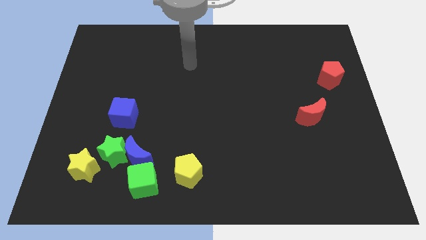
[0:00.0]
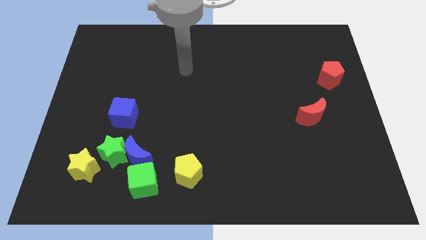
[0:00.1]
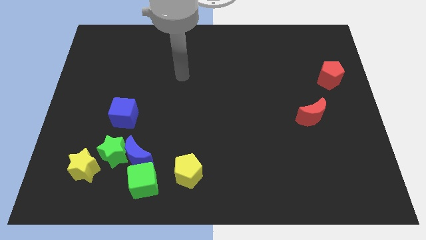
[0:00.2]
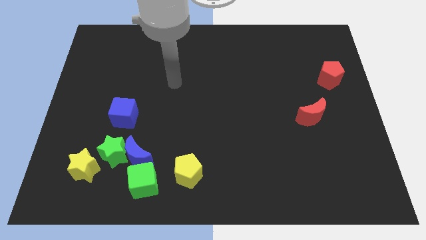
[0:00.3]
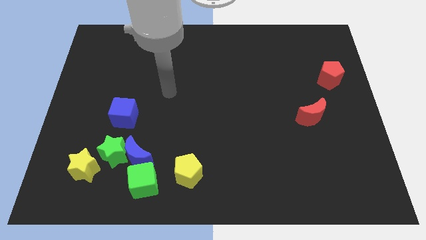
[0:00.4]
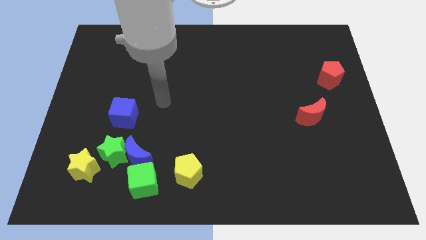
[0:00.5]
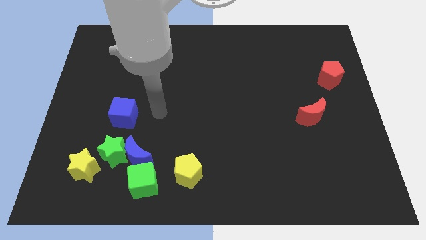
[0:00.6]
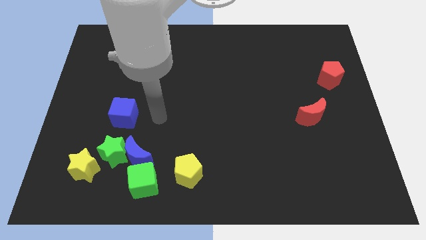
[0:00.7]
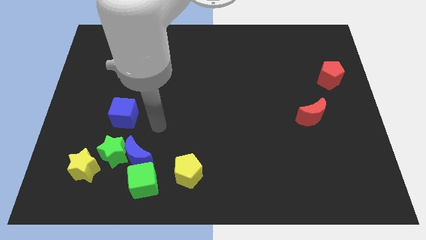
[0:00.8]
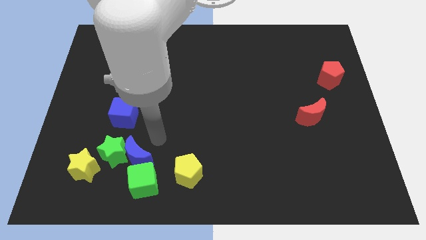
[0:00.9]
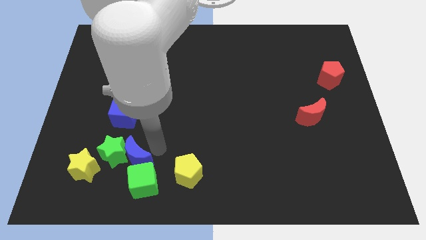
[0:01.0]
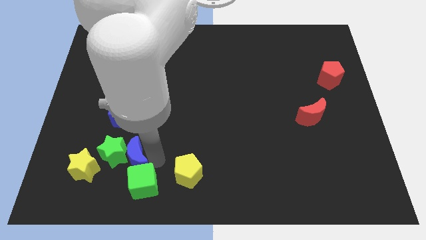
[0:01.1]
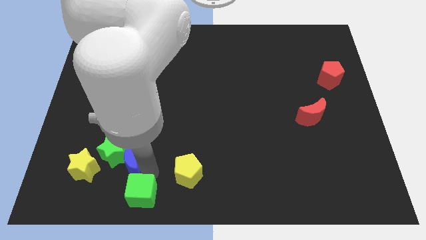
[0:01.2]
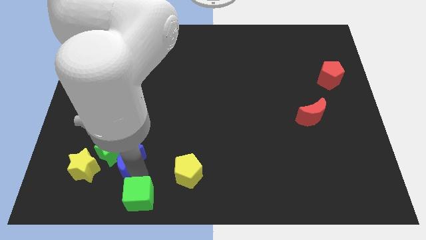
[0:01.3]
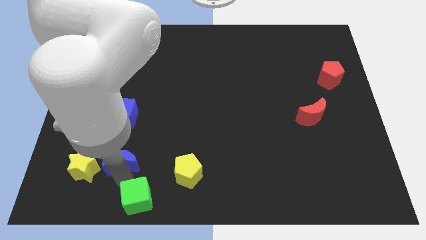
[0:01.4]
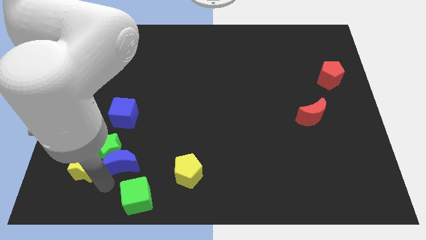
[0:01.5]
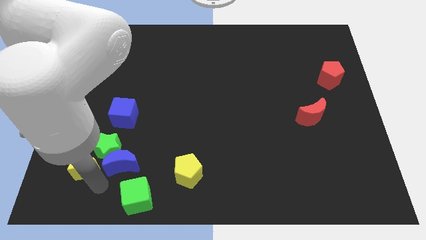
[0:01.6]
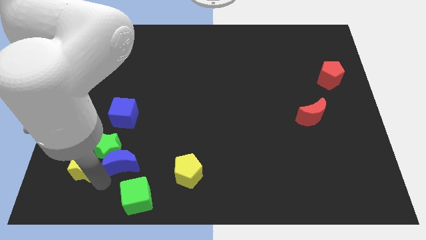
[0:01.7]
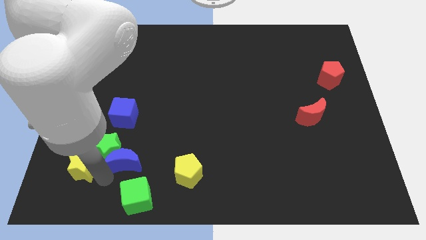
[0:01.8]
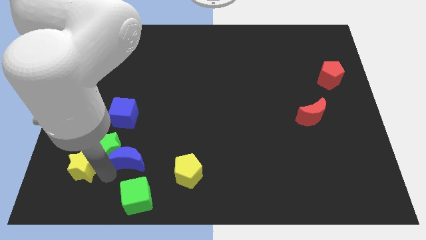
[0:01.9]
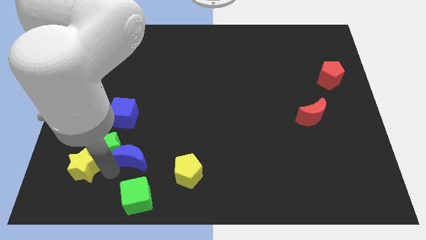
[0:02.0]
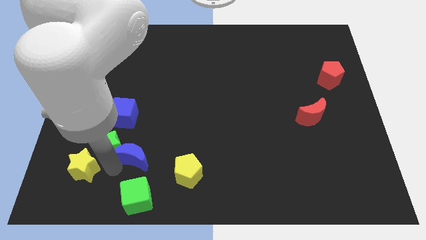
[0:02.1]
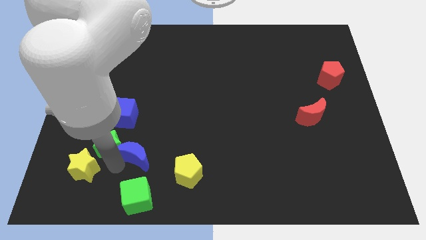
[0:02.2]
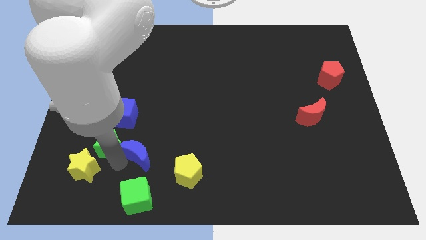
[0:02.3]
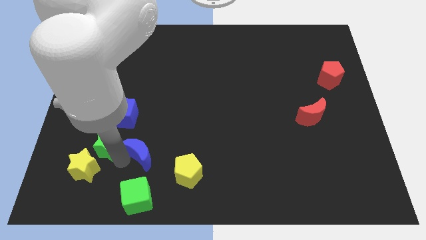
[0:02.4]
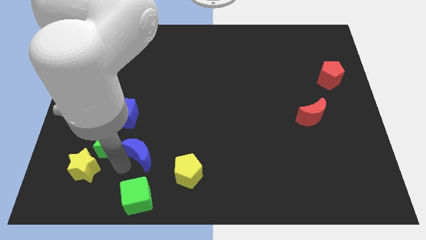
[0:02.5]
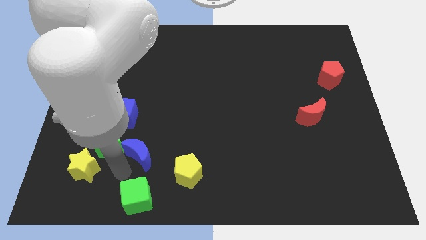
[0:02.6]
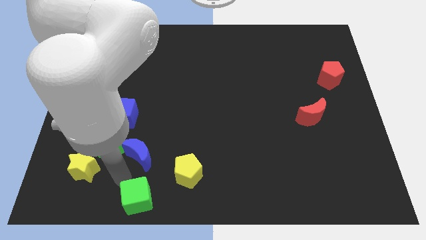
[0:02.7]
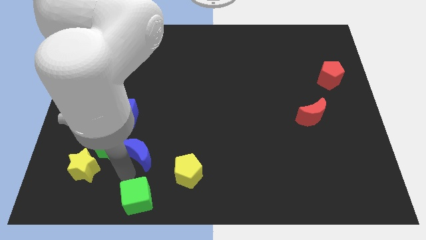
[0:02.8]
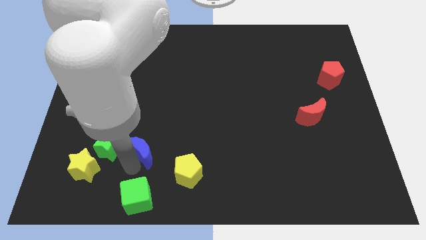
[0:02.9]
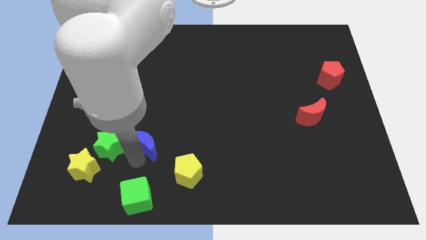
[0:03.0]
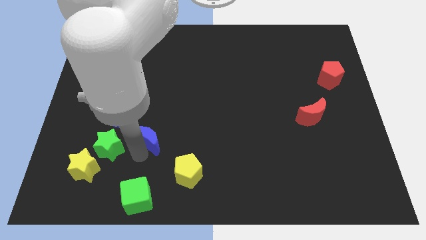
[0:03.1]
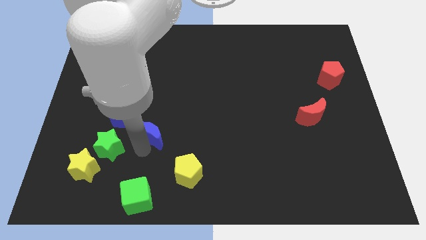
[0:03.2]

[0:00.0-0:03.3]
separate the blue moon from the green star and green cube

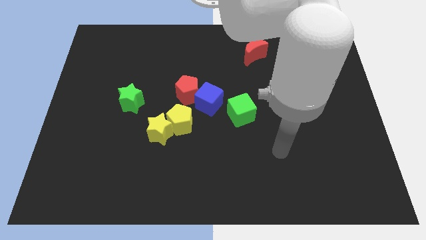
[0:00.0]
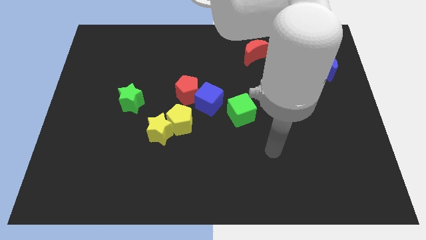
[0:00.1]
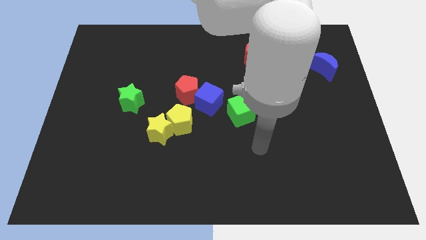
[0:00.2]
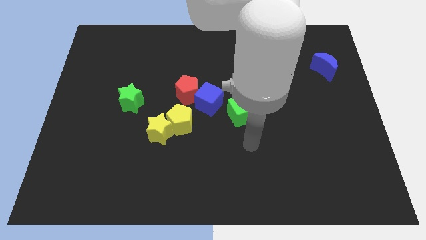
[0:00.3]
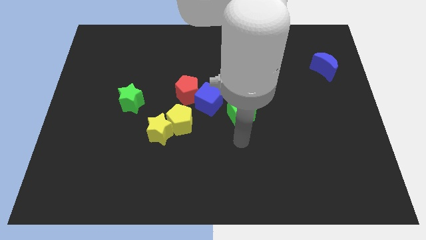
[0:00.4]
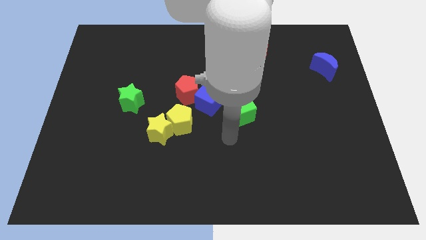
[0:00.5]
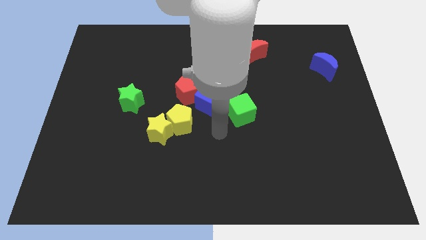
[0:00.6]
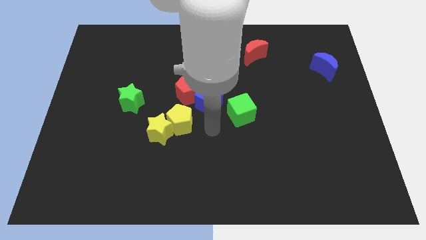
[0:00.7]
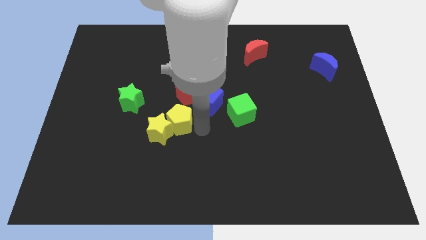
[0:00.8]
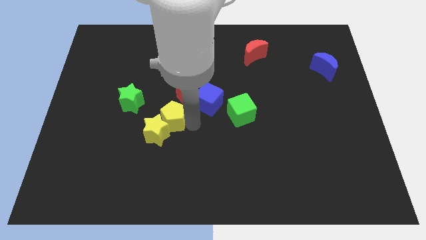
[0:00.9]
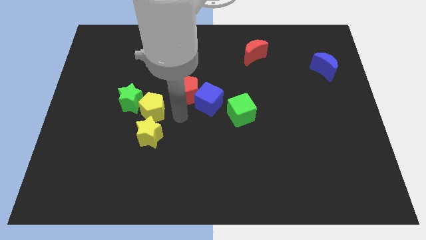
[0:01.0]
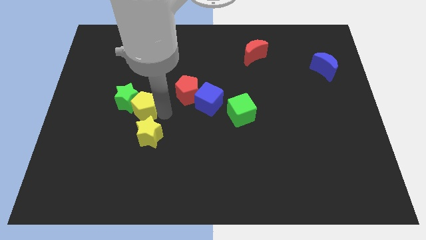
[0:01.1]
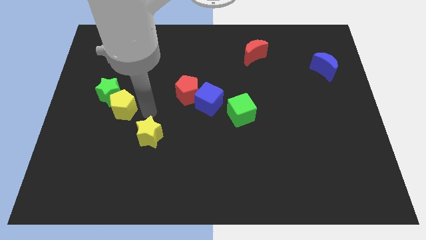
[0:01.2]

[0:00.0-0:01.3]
separate the yellow star from the yellow pentagon

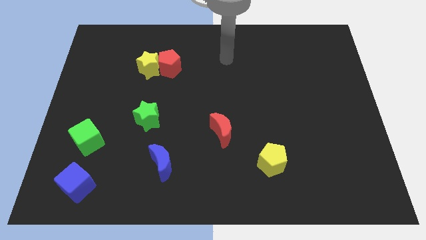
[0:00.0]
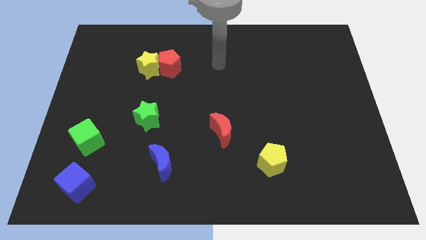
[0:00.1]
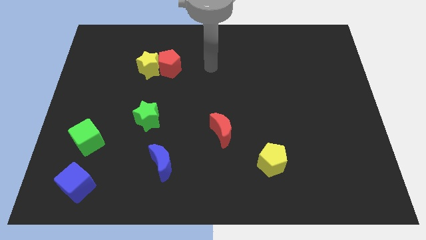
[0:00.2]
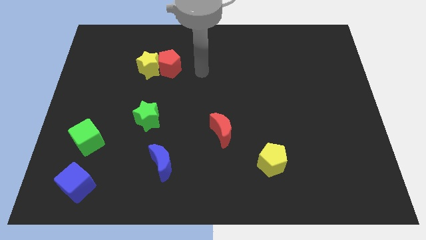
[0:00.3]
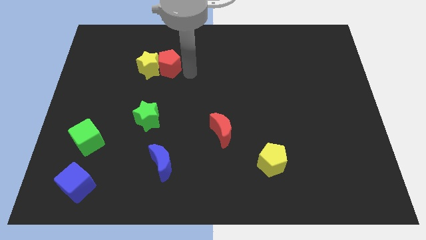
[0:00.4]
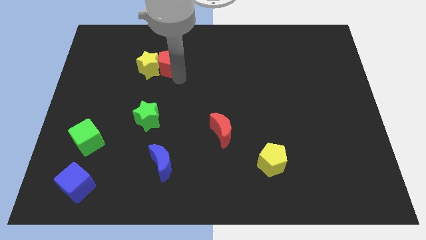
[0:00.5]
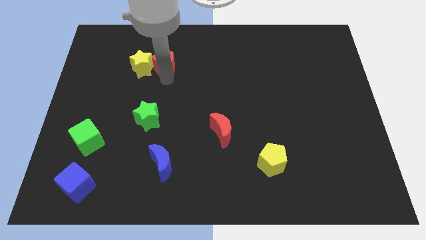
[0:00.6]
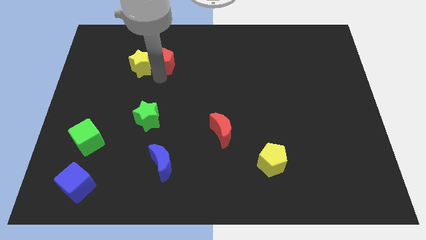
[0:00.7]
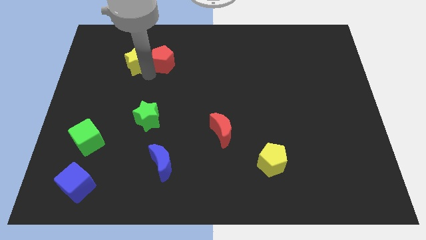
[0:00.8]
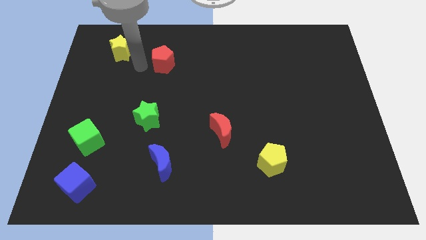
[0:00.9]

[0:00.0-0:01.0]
pull the red pentagon apart from the yellow star

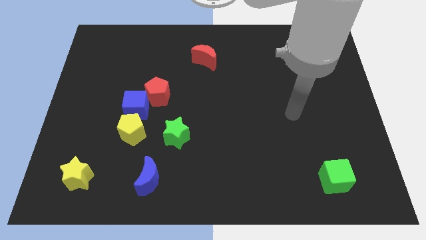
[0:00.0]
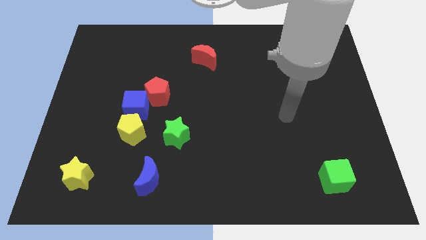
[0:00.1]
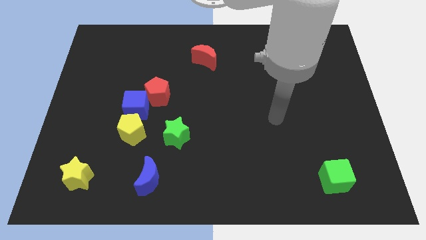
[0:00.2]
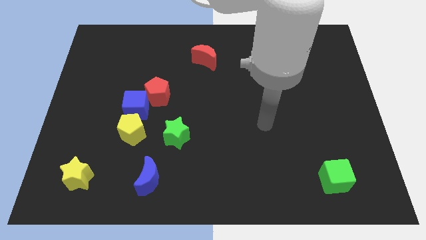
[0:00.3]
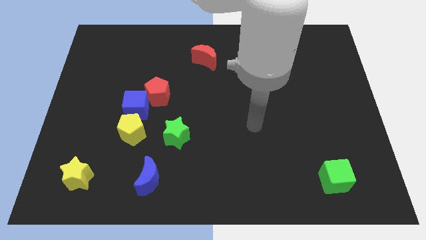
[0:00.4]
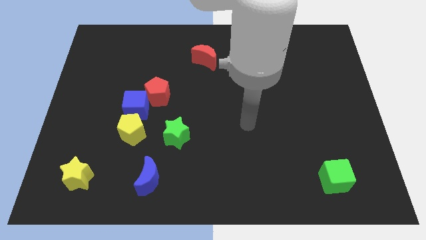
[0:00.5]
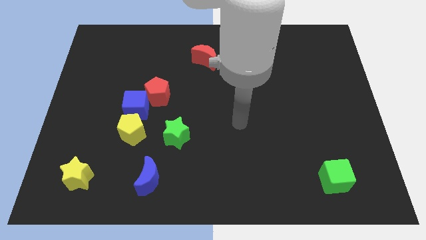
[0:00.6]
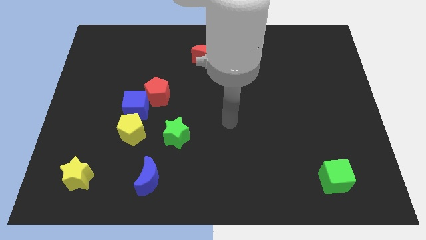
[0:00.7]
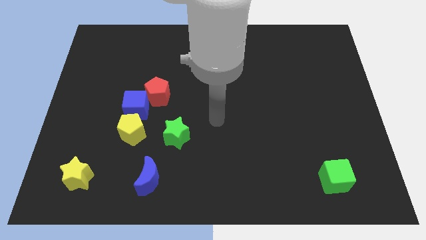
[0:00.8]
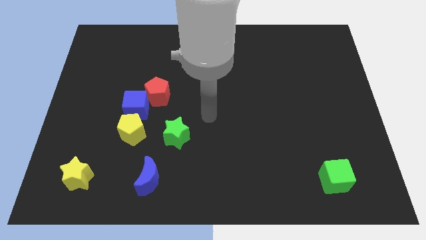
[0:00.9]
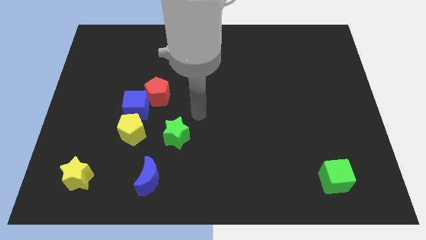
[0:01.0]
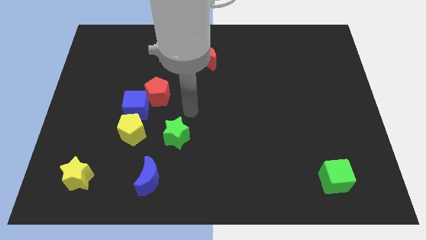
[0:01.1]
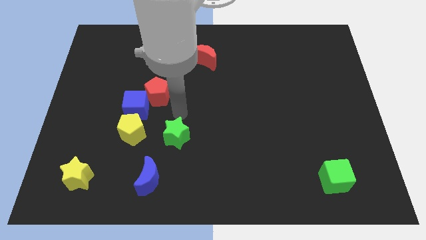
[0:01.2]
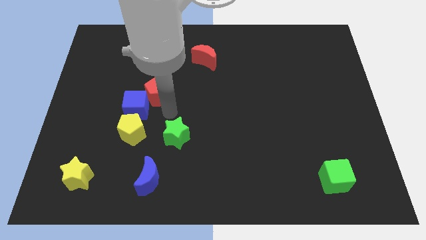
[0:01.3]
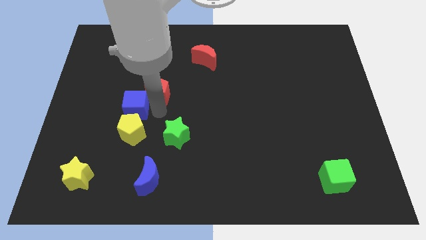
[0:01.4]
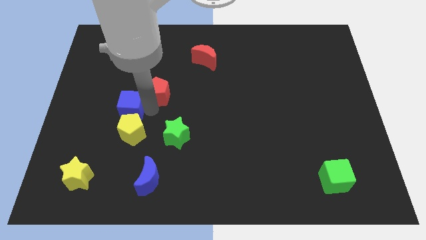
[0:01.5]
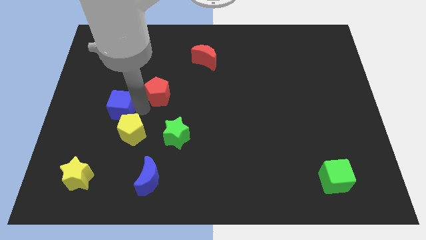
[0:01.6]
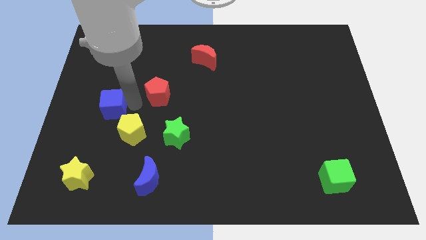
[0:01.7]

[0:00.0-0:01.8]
pull the red pentagon apart from the blue cube

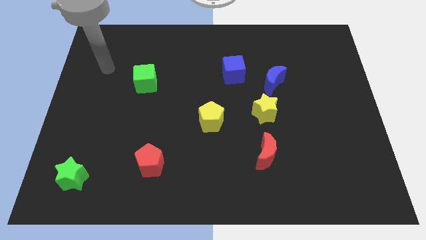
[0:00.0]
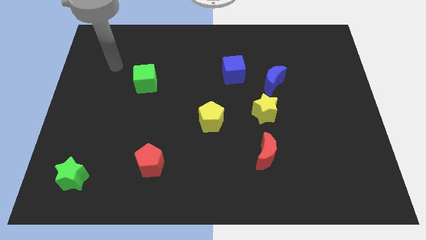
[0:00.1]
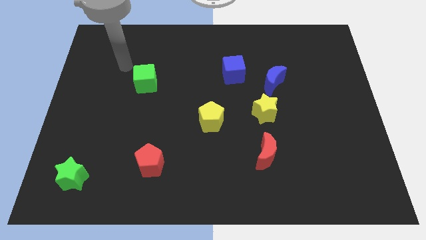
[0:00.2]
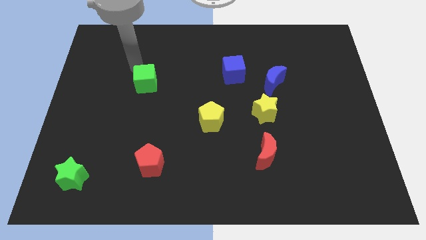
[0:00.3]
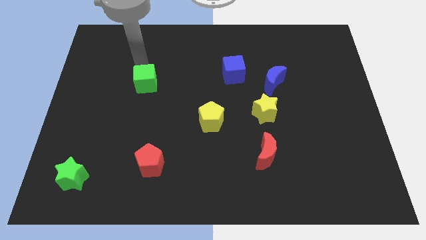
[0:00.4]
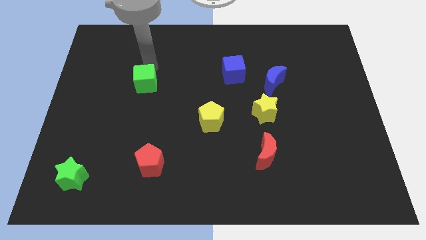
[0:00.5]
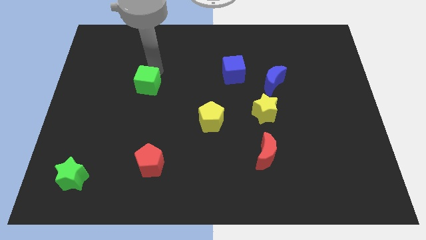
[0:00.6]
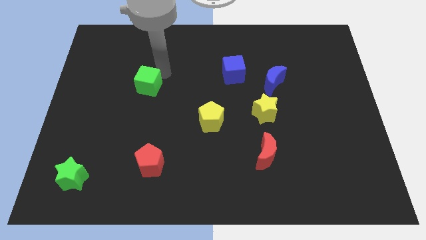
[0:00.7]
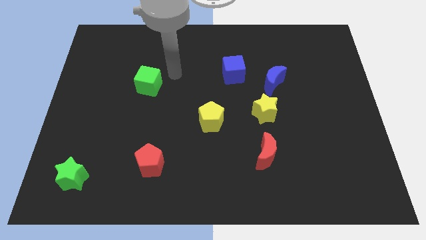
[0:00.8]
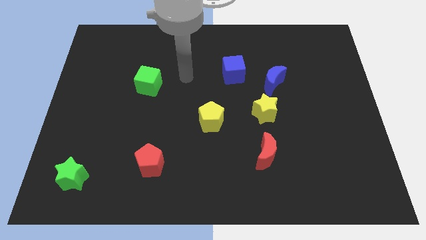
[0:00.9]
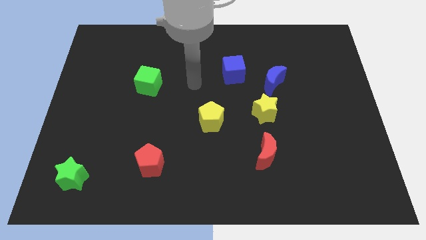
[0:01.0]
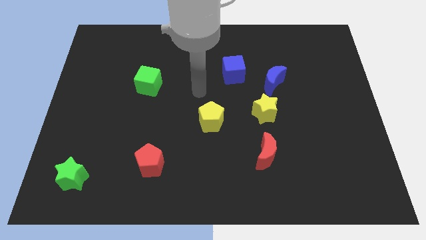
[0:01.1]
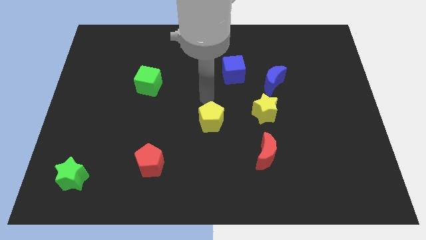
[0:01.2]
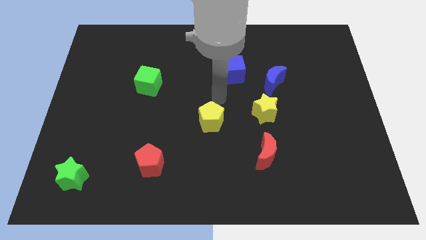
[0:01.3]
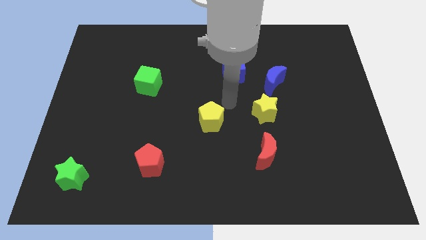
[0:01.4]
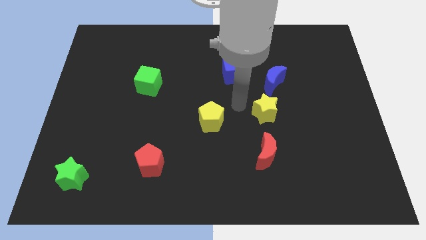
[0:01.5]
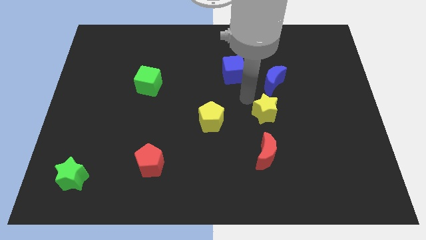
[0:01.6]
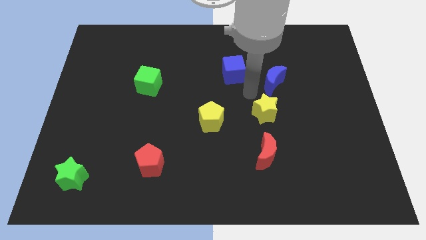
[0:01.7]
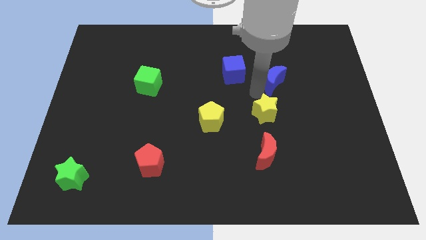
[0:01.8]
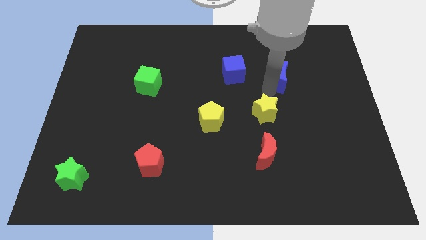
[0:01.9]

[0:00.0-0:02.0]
separate the yellow star from the blue moon
